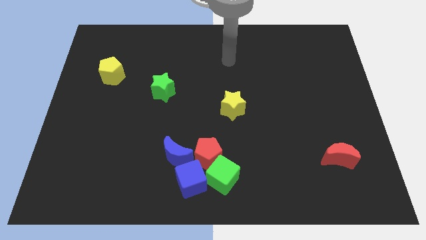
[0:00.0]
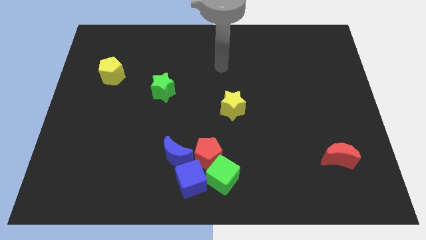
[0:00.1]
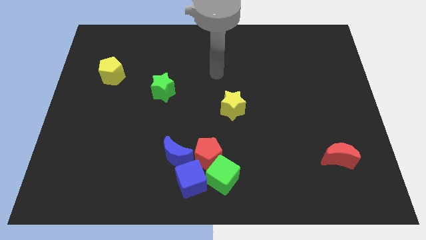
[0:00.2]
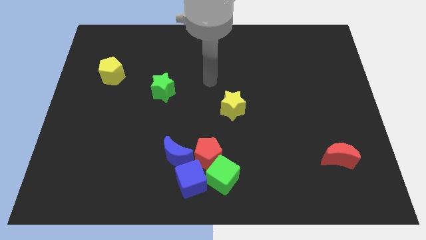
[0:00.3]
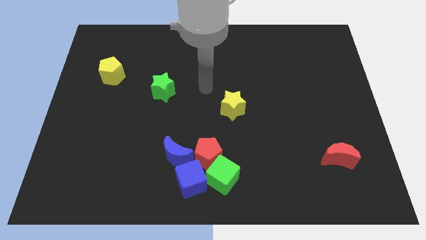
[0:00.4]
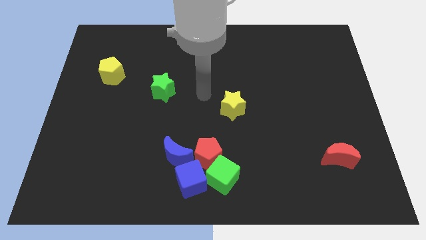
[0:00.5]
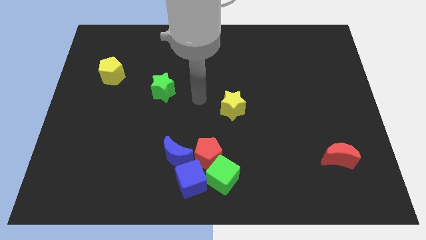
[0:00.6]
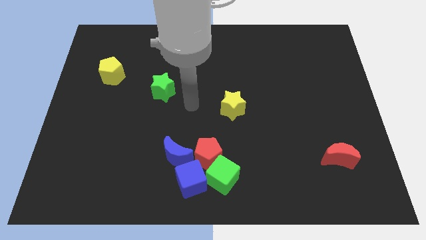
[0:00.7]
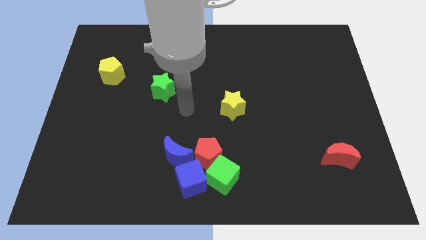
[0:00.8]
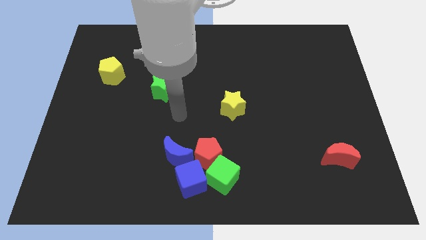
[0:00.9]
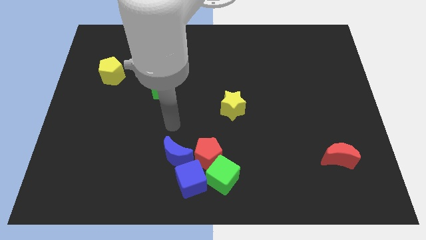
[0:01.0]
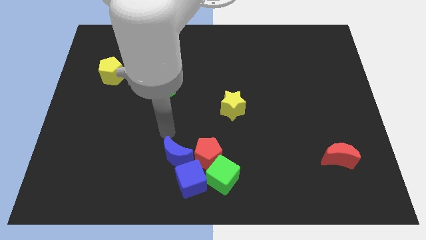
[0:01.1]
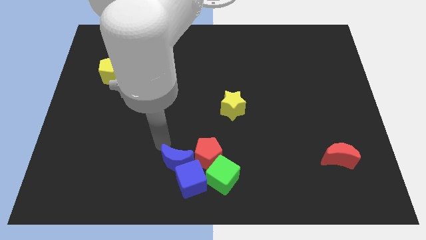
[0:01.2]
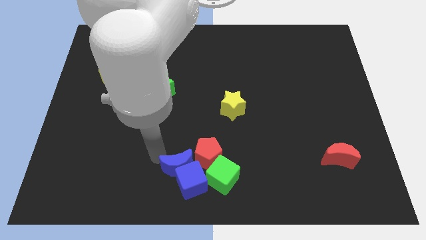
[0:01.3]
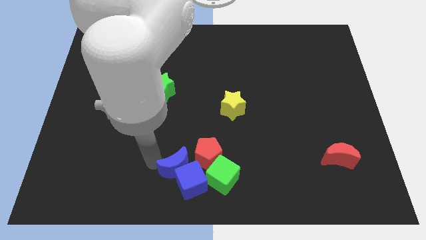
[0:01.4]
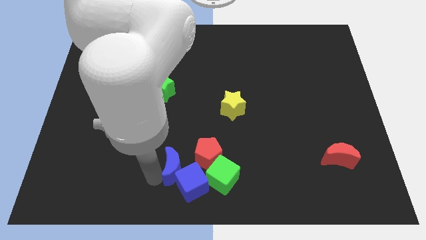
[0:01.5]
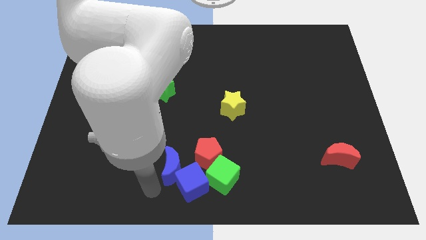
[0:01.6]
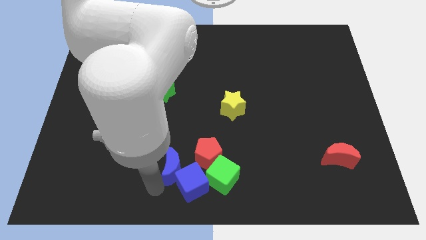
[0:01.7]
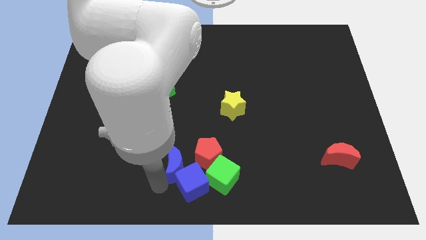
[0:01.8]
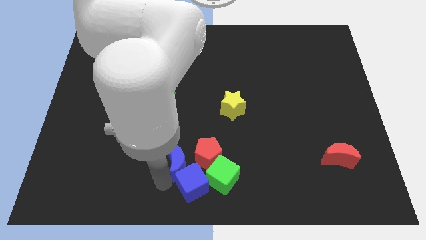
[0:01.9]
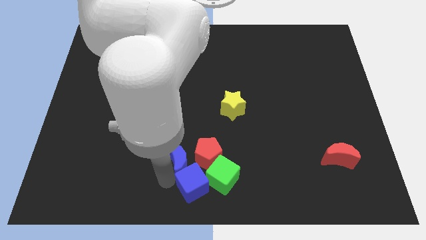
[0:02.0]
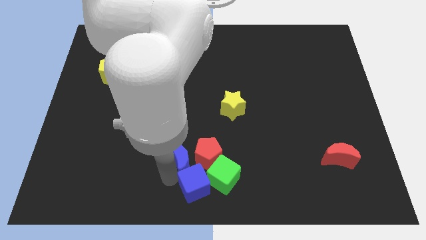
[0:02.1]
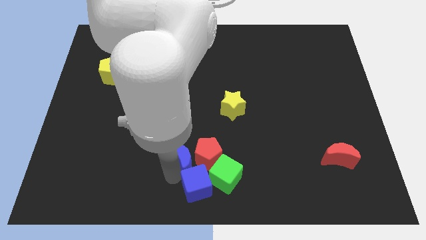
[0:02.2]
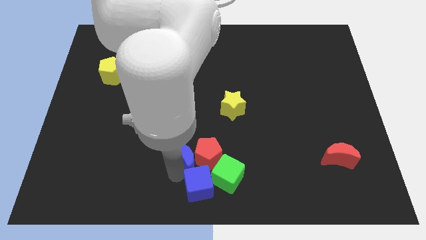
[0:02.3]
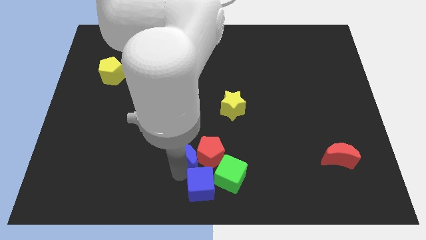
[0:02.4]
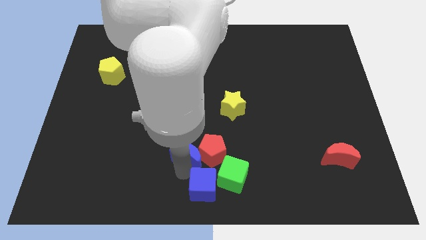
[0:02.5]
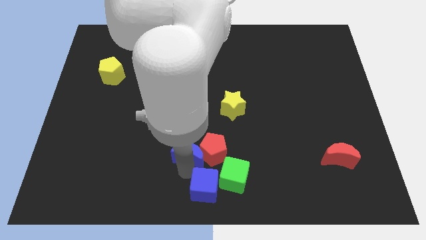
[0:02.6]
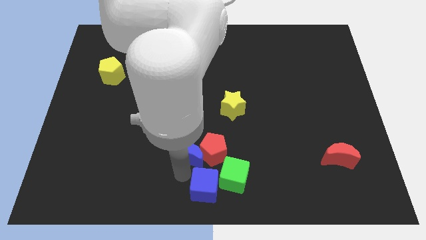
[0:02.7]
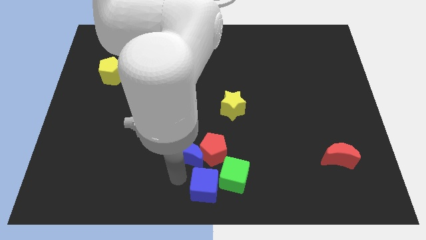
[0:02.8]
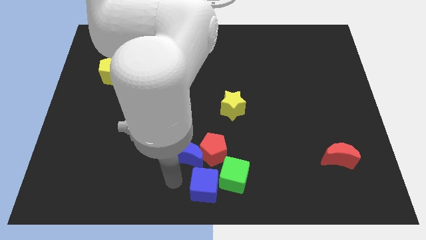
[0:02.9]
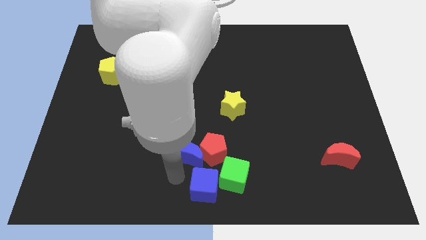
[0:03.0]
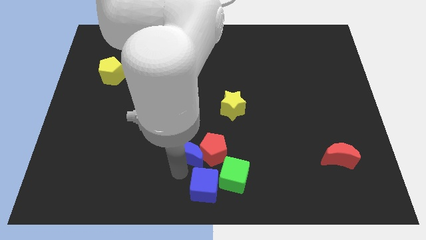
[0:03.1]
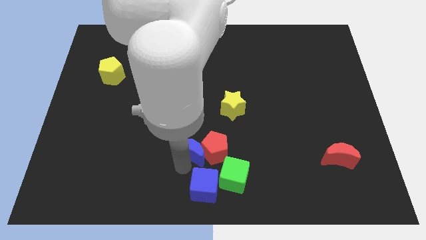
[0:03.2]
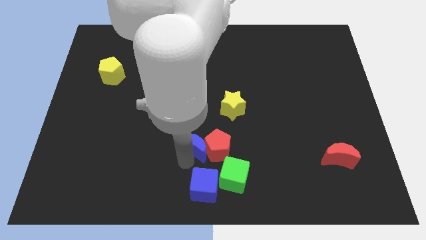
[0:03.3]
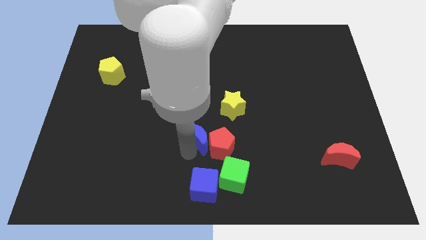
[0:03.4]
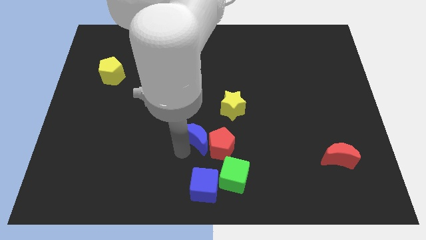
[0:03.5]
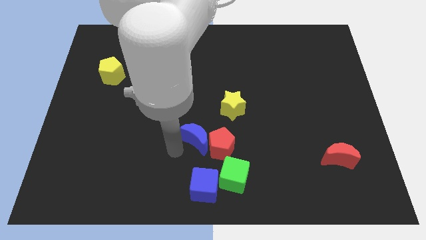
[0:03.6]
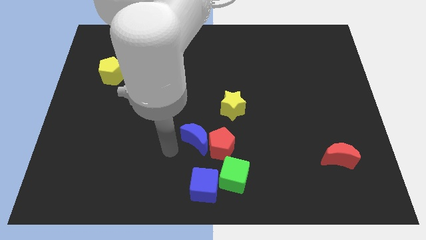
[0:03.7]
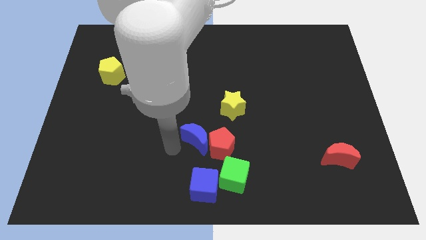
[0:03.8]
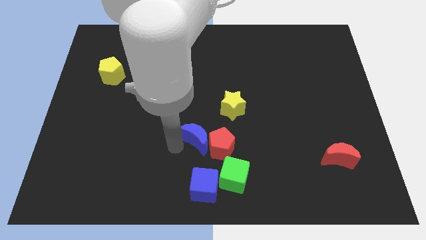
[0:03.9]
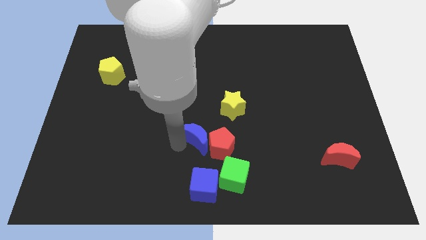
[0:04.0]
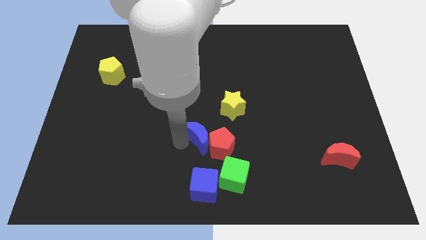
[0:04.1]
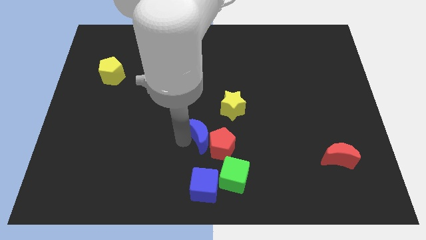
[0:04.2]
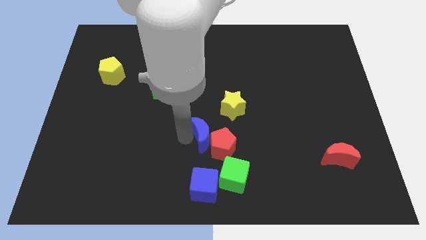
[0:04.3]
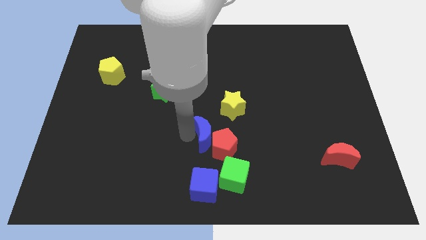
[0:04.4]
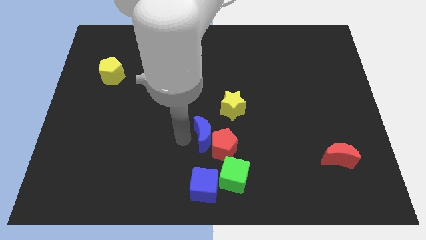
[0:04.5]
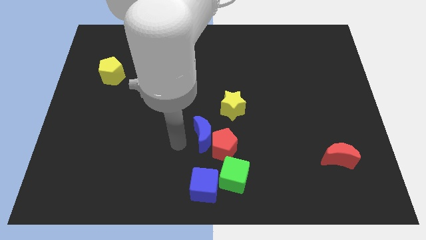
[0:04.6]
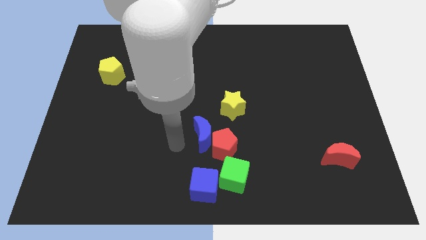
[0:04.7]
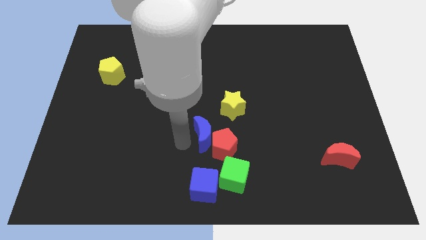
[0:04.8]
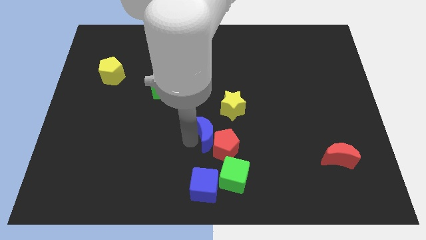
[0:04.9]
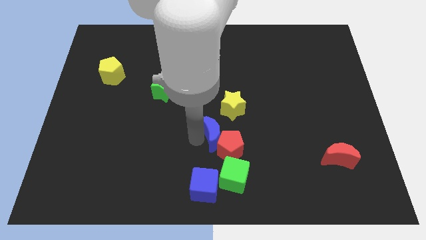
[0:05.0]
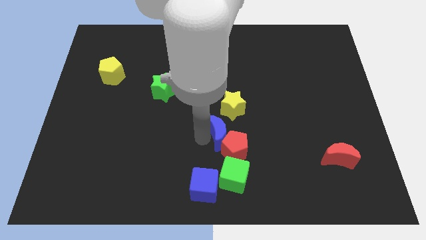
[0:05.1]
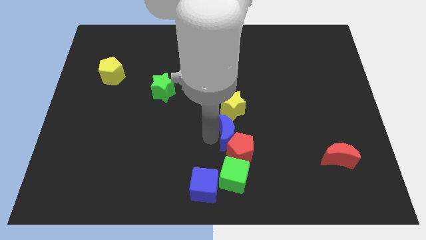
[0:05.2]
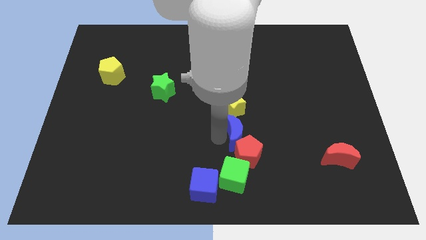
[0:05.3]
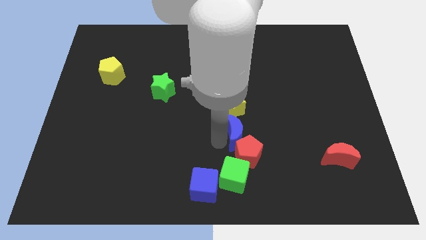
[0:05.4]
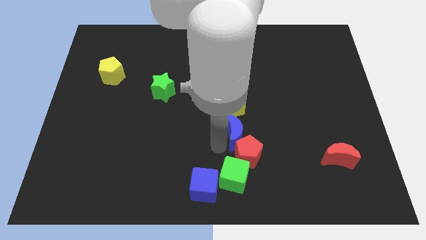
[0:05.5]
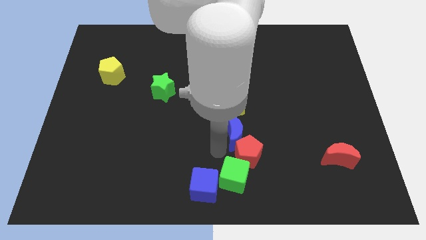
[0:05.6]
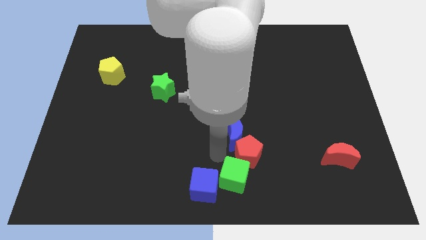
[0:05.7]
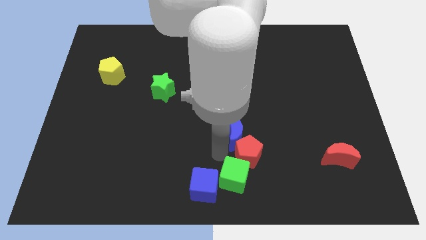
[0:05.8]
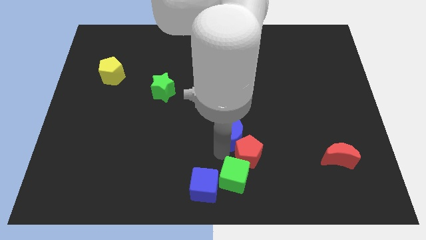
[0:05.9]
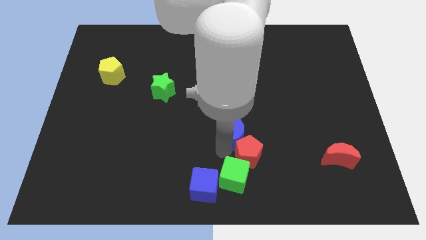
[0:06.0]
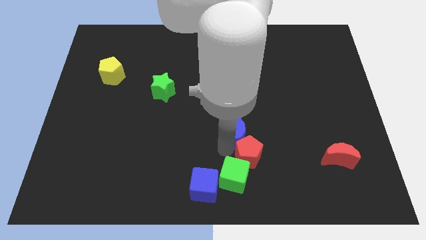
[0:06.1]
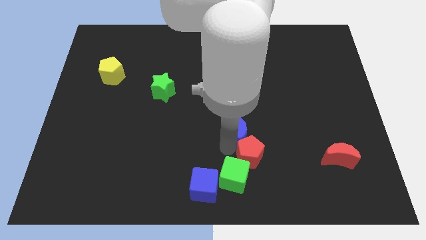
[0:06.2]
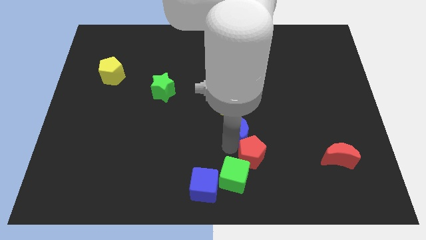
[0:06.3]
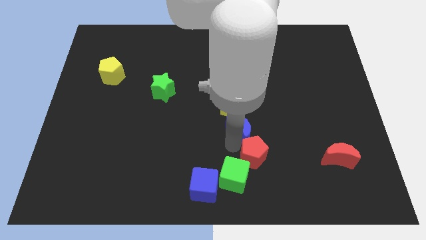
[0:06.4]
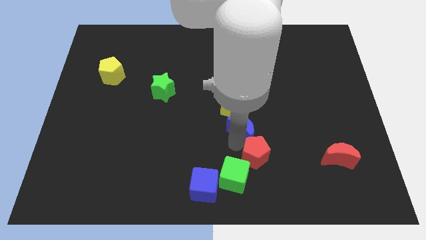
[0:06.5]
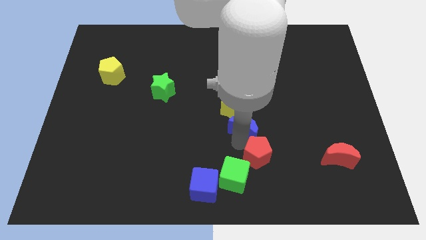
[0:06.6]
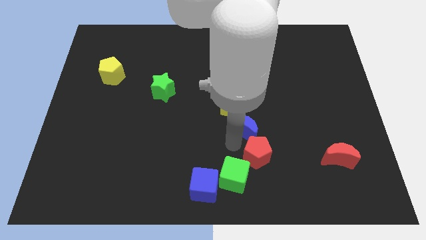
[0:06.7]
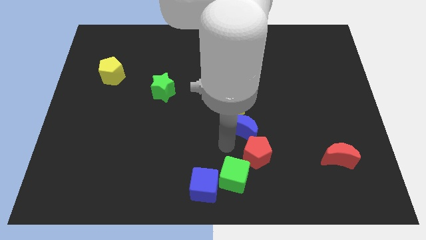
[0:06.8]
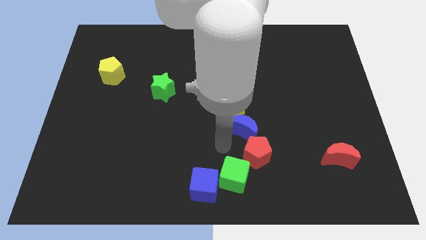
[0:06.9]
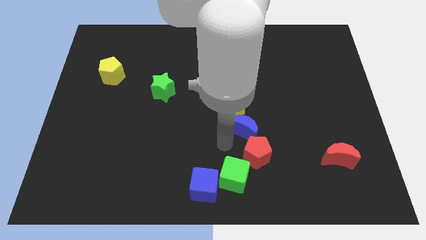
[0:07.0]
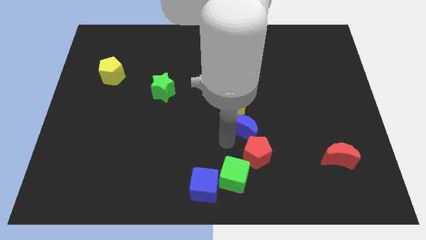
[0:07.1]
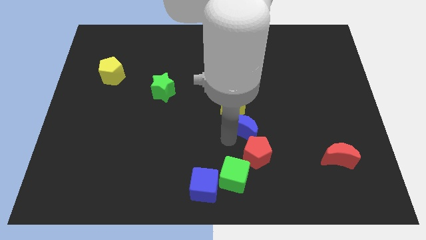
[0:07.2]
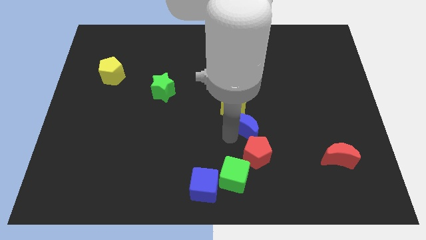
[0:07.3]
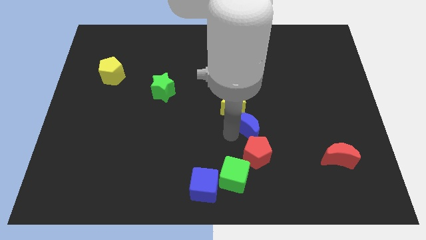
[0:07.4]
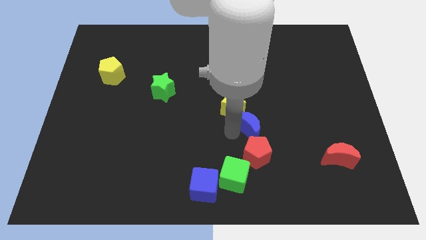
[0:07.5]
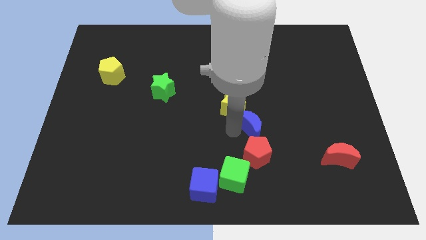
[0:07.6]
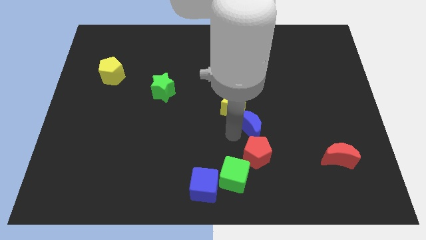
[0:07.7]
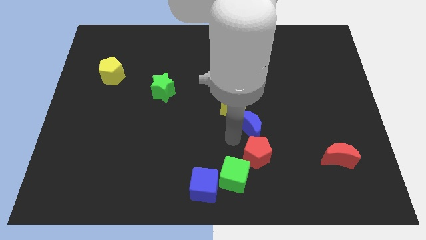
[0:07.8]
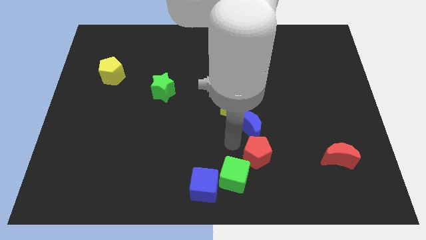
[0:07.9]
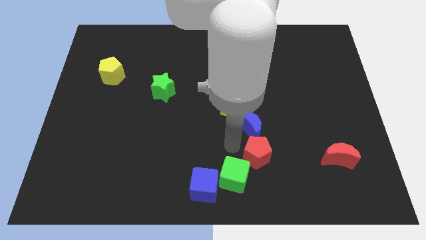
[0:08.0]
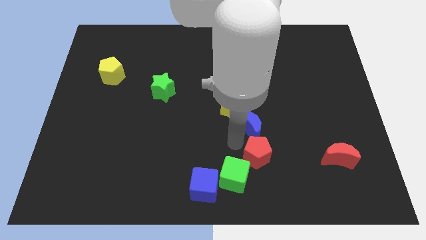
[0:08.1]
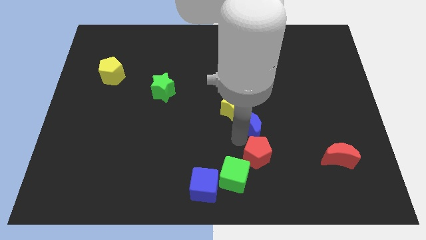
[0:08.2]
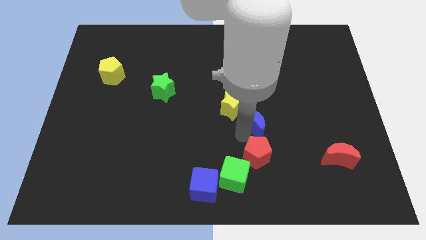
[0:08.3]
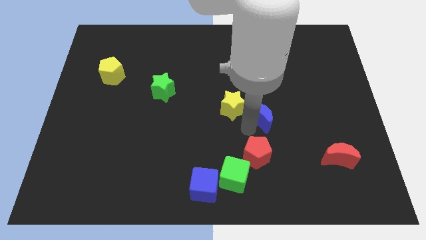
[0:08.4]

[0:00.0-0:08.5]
push the blue moon just right of the yellow star
